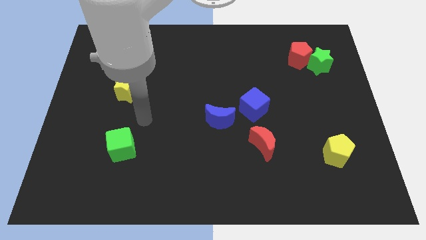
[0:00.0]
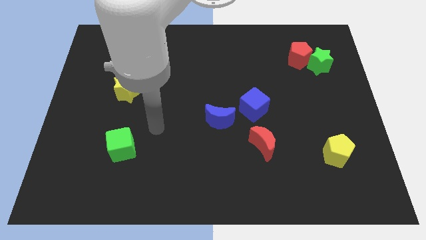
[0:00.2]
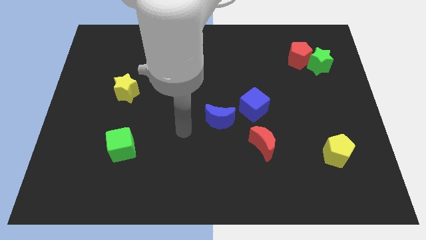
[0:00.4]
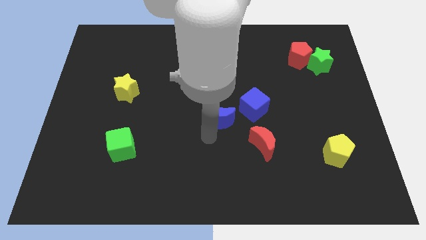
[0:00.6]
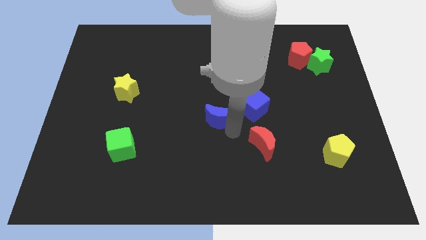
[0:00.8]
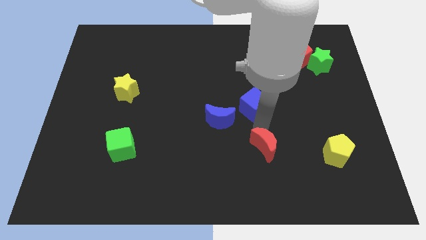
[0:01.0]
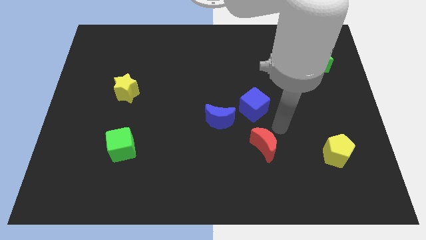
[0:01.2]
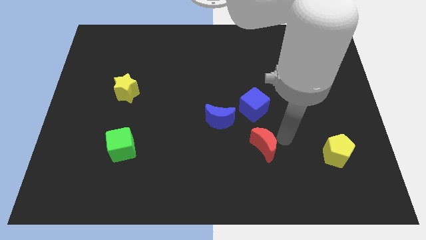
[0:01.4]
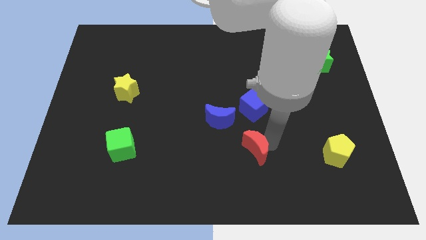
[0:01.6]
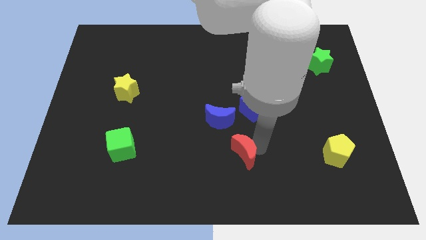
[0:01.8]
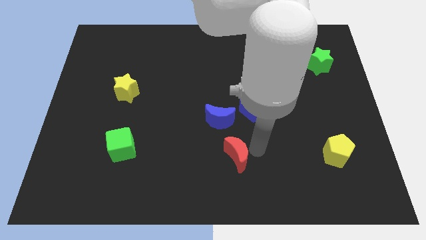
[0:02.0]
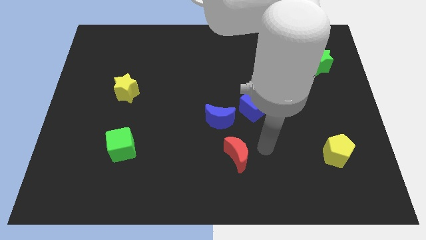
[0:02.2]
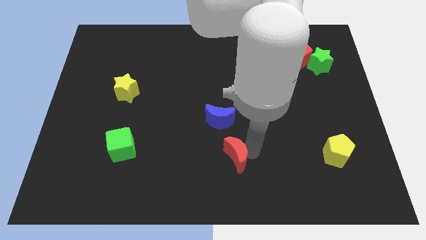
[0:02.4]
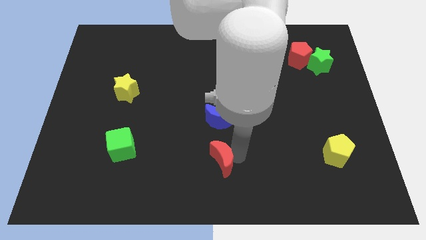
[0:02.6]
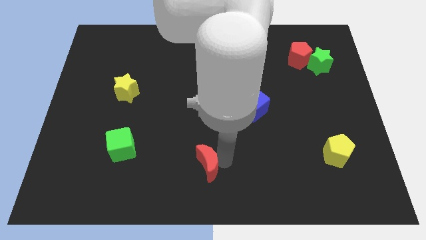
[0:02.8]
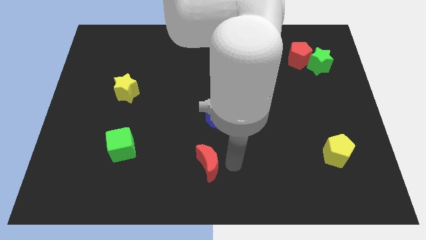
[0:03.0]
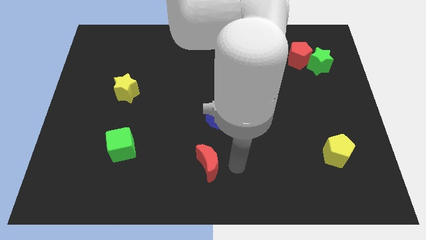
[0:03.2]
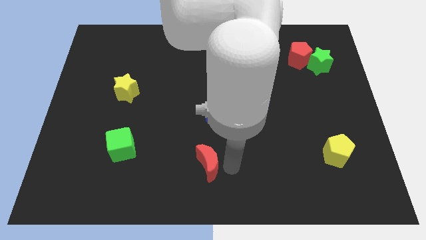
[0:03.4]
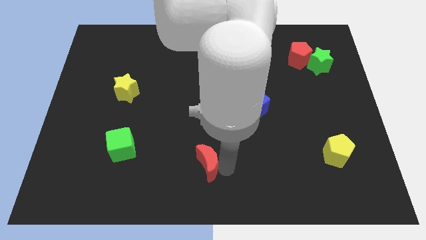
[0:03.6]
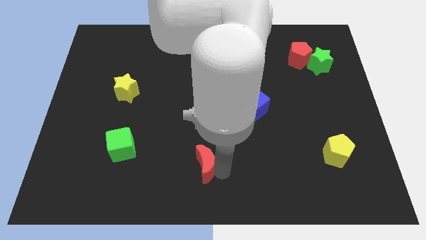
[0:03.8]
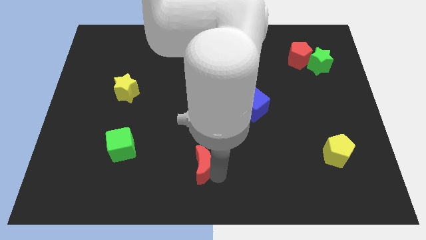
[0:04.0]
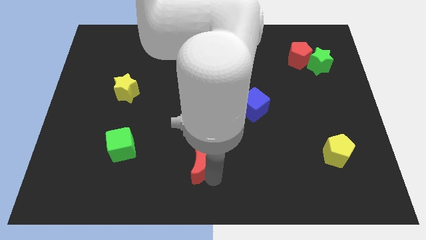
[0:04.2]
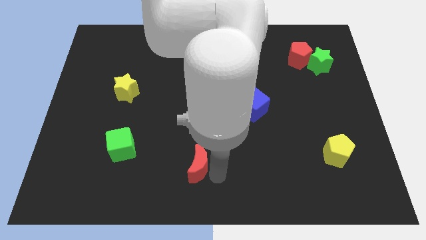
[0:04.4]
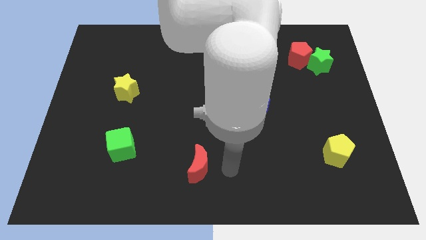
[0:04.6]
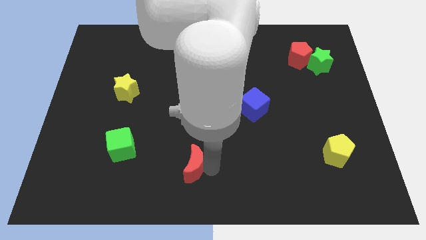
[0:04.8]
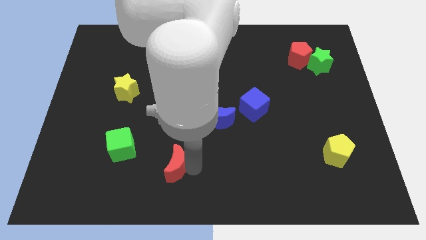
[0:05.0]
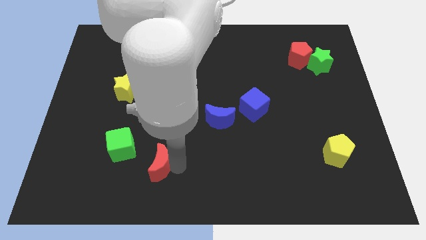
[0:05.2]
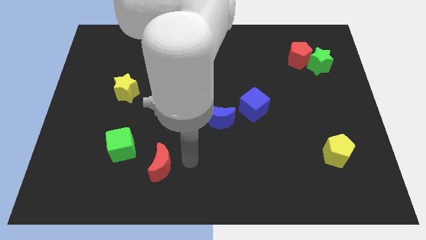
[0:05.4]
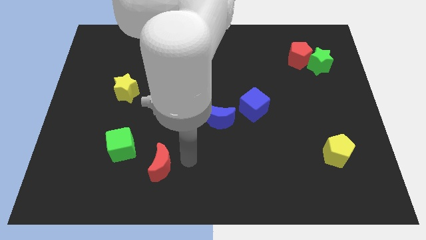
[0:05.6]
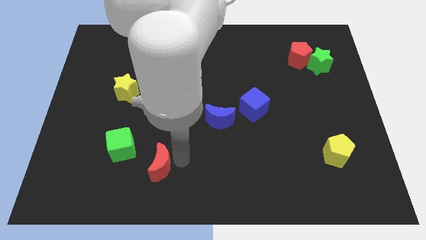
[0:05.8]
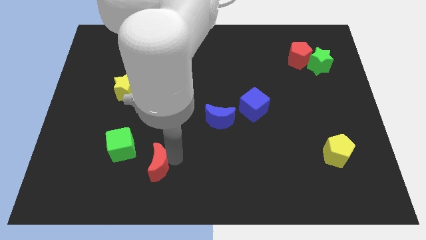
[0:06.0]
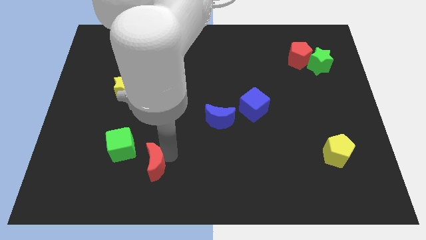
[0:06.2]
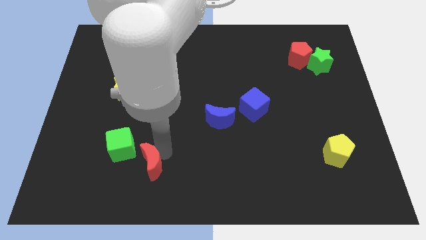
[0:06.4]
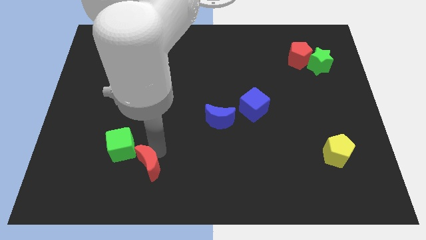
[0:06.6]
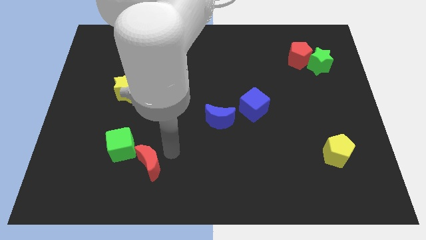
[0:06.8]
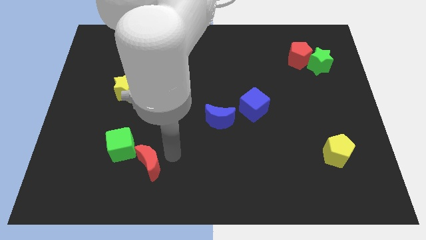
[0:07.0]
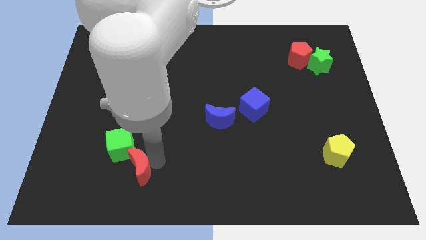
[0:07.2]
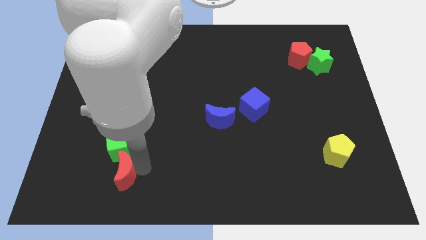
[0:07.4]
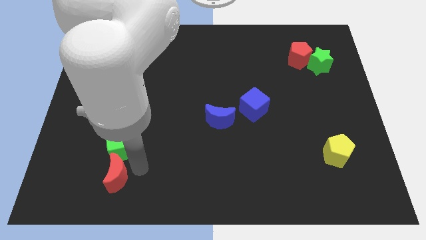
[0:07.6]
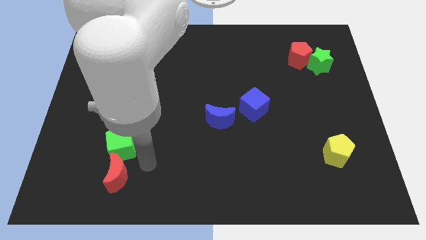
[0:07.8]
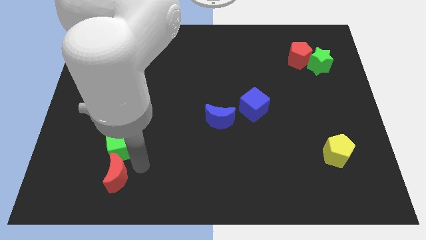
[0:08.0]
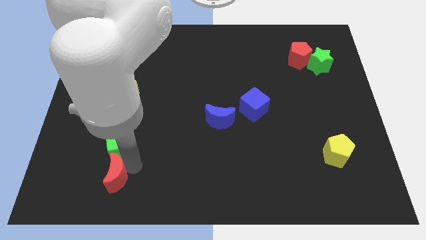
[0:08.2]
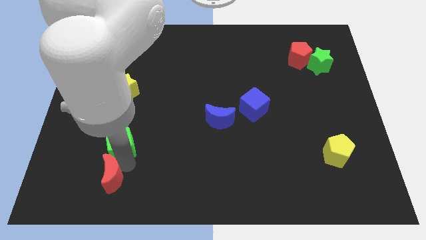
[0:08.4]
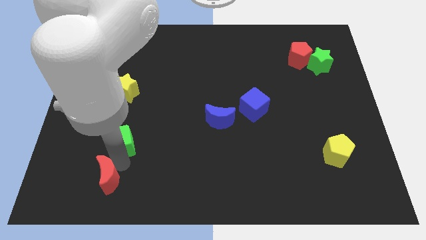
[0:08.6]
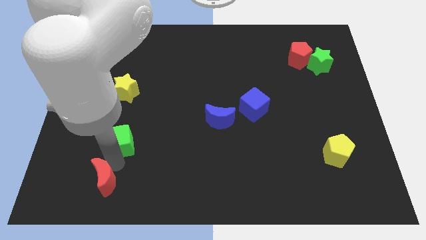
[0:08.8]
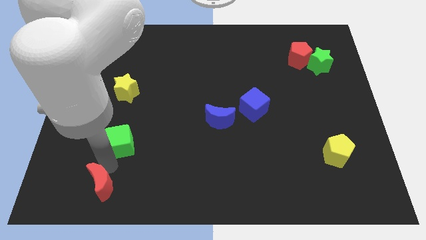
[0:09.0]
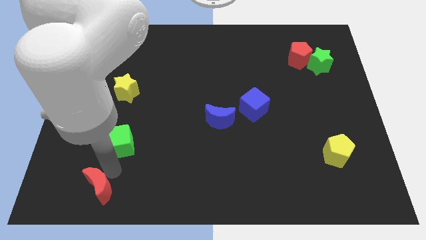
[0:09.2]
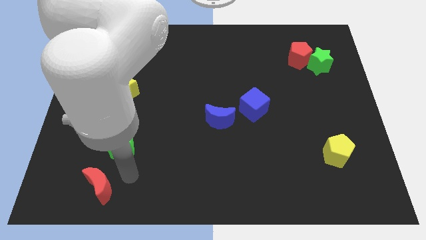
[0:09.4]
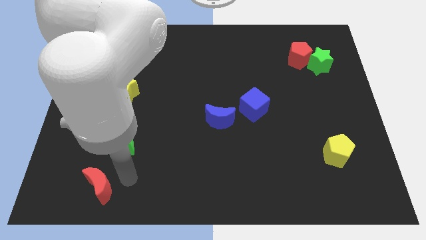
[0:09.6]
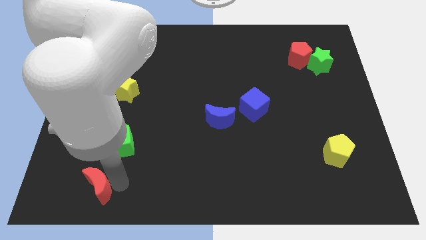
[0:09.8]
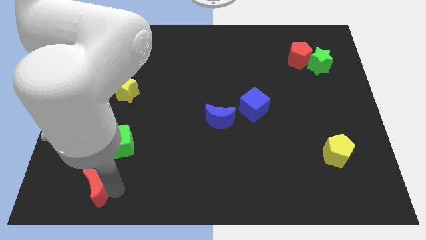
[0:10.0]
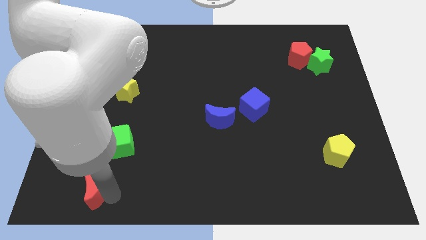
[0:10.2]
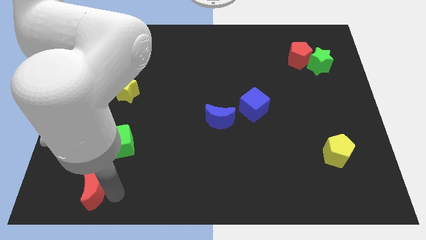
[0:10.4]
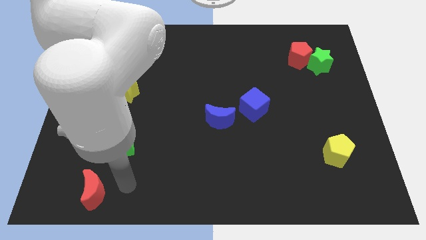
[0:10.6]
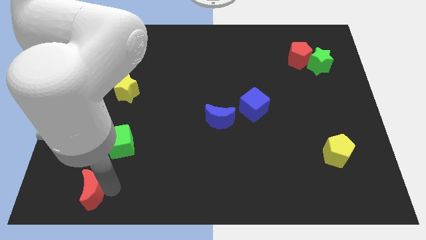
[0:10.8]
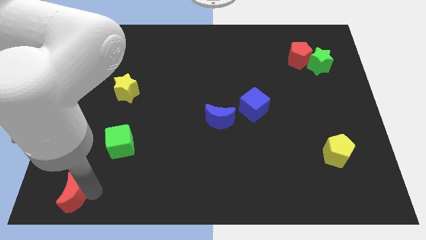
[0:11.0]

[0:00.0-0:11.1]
put the red moon to the bottom left

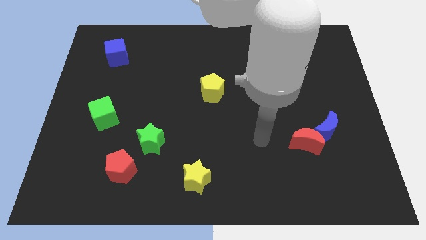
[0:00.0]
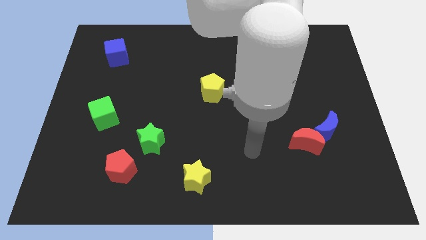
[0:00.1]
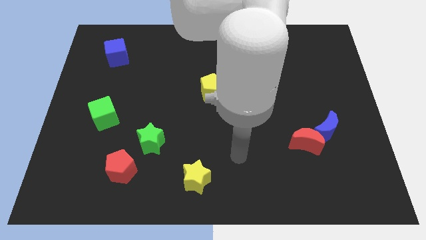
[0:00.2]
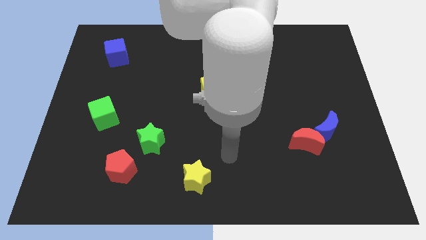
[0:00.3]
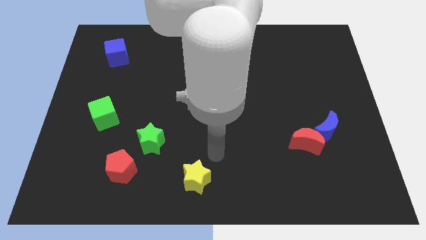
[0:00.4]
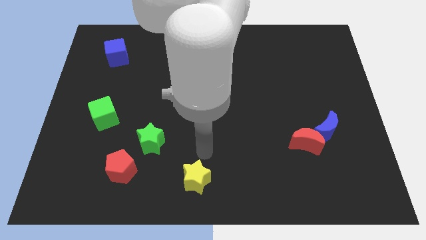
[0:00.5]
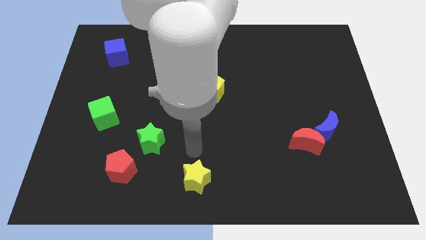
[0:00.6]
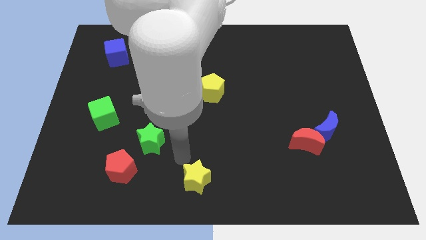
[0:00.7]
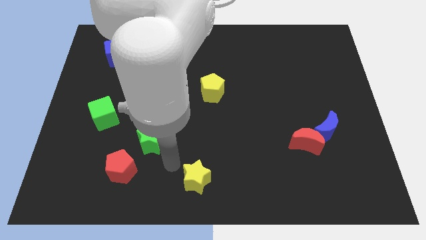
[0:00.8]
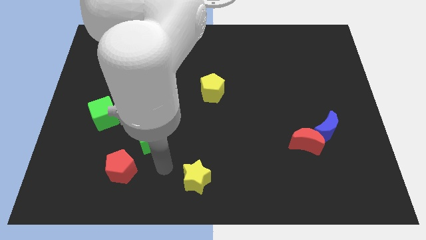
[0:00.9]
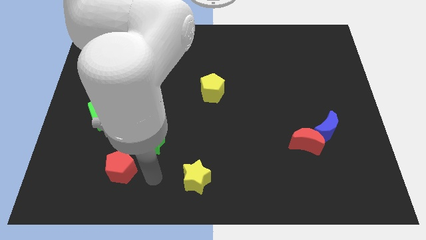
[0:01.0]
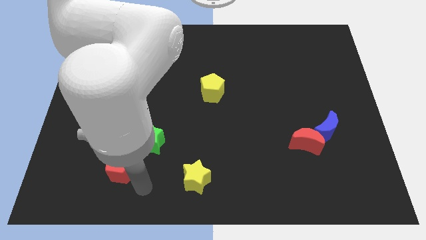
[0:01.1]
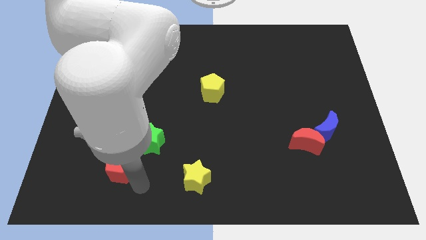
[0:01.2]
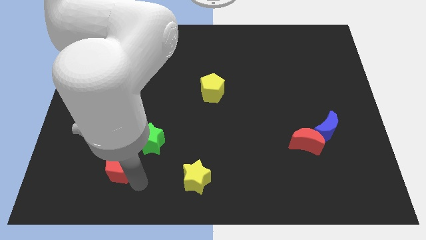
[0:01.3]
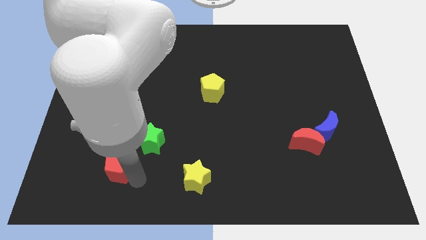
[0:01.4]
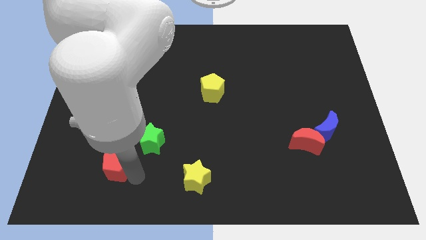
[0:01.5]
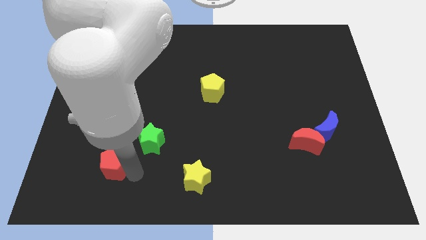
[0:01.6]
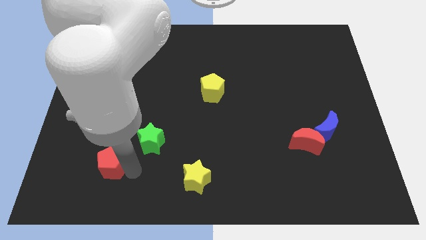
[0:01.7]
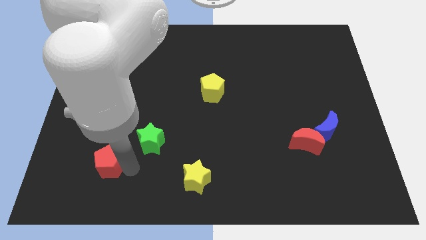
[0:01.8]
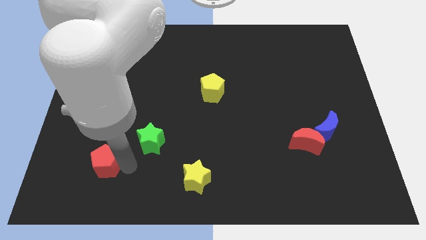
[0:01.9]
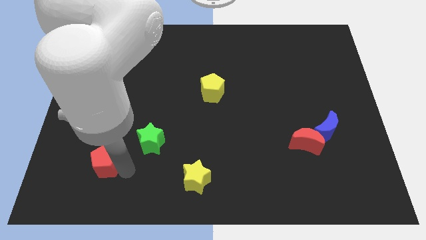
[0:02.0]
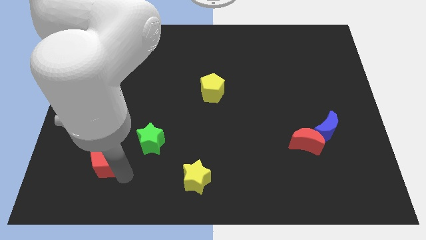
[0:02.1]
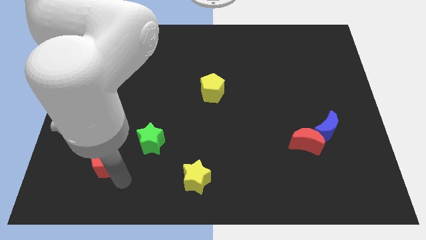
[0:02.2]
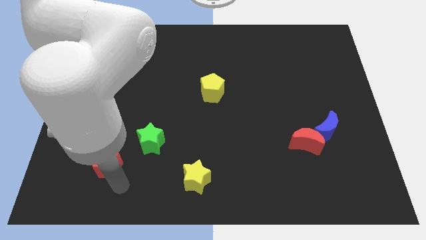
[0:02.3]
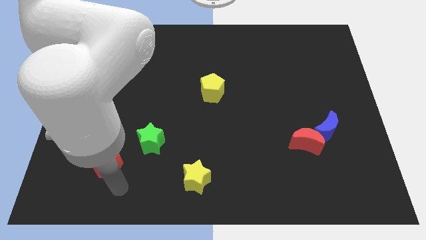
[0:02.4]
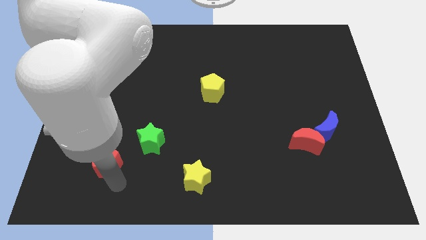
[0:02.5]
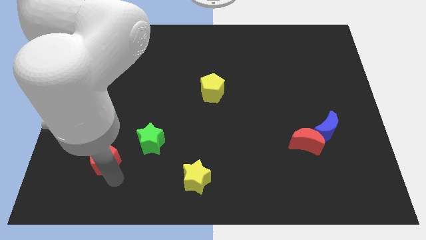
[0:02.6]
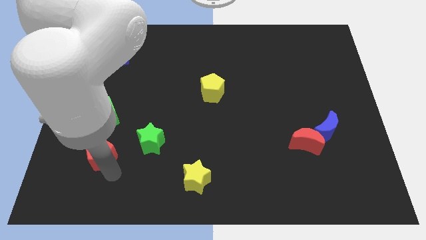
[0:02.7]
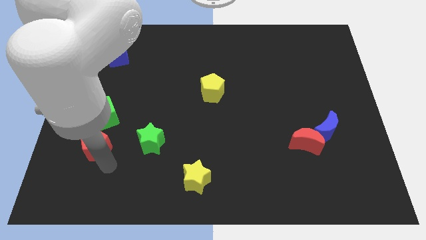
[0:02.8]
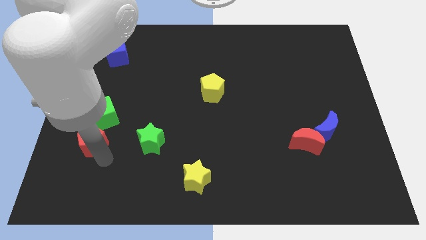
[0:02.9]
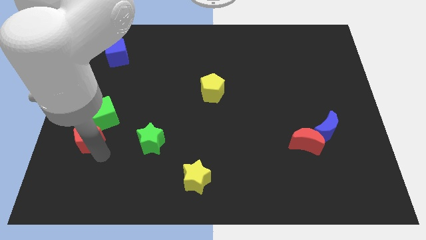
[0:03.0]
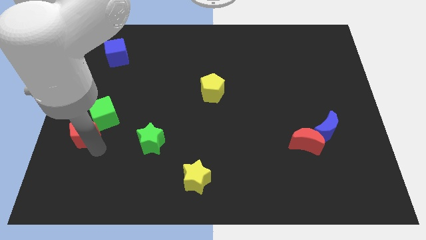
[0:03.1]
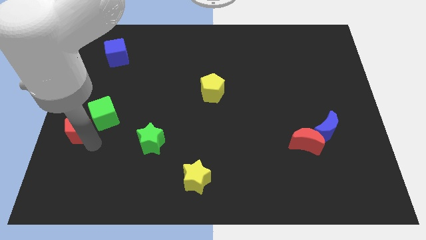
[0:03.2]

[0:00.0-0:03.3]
move the red pentagon to the left side of the board
